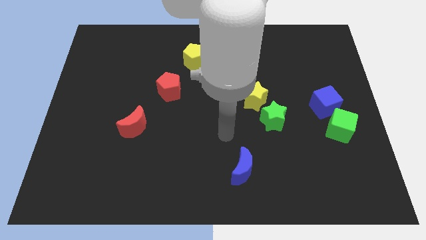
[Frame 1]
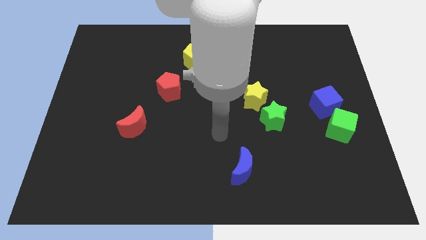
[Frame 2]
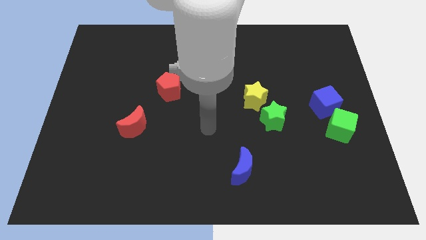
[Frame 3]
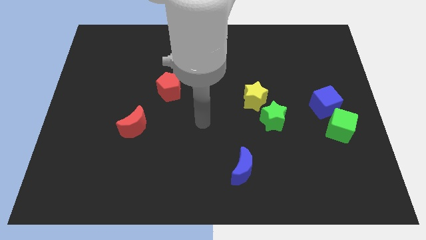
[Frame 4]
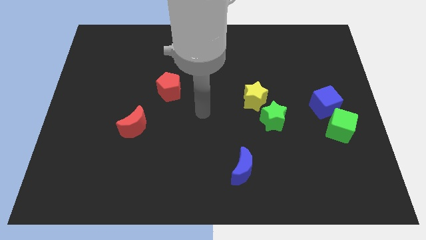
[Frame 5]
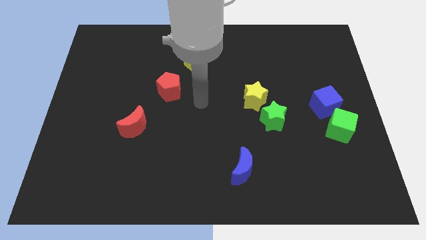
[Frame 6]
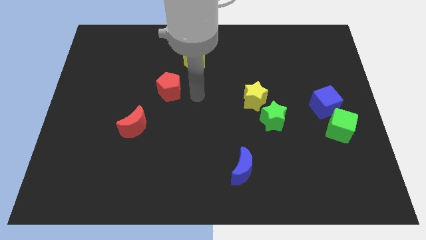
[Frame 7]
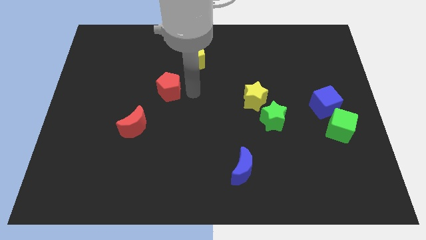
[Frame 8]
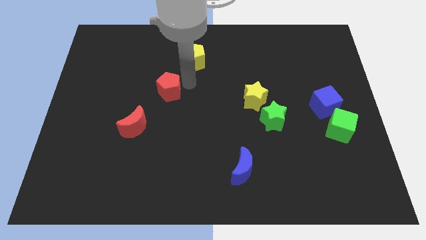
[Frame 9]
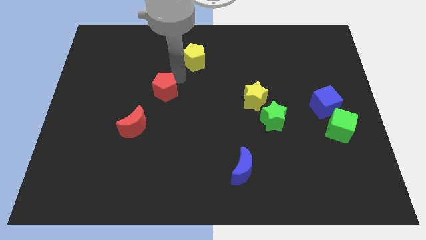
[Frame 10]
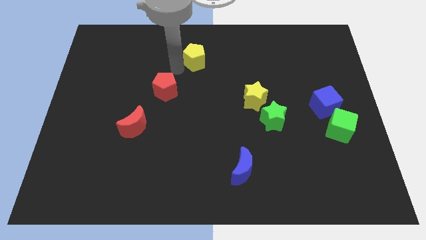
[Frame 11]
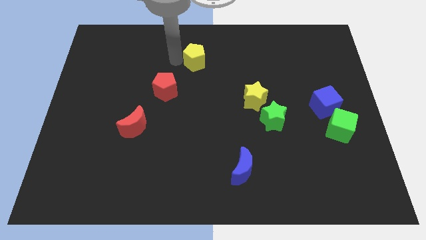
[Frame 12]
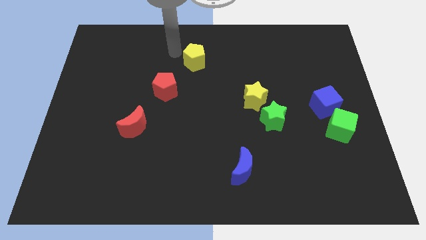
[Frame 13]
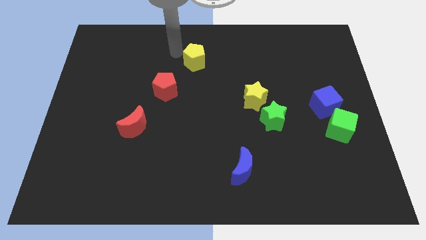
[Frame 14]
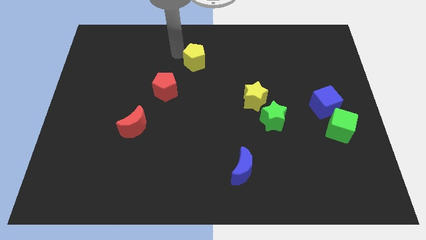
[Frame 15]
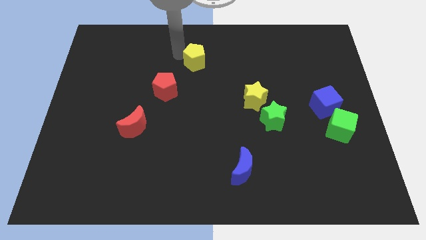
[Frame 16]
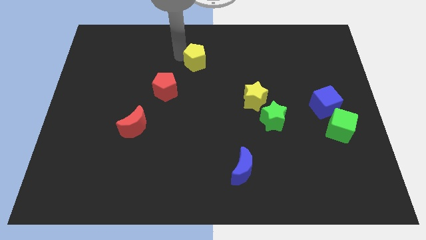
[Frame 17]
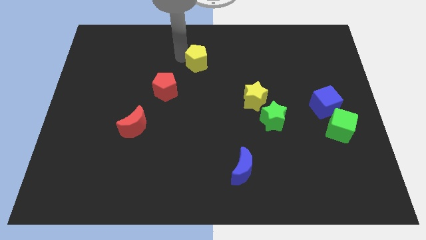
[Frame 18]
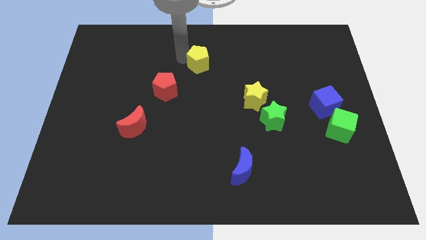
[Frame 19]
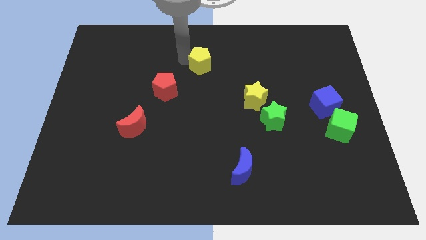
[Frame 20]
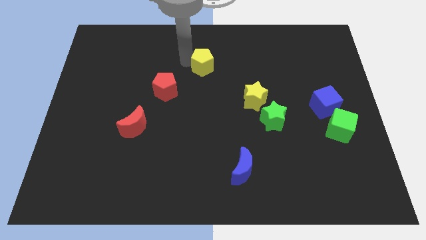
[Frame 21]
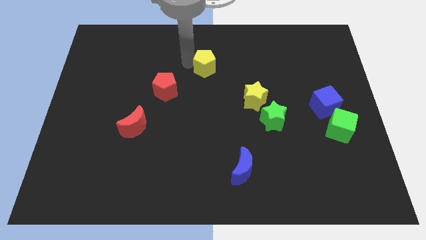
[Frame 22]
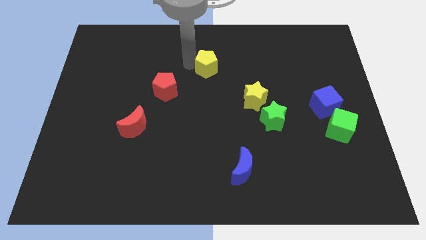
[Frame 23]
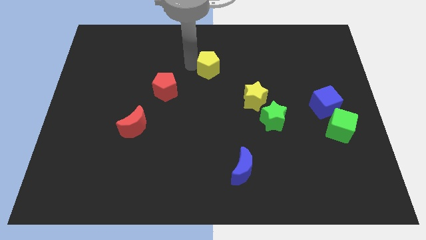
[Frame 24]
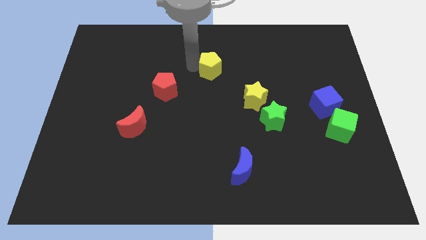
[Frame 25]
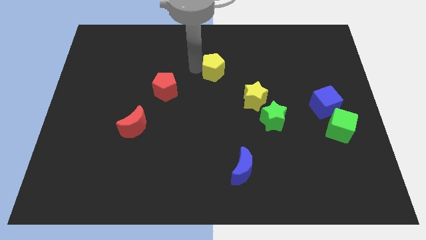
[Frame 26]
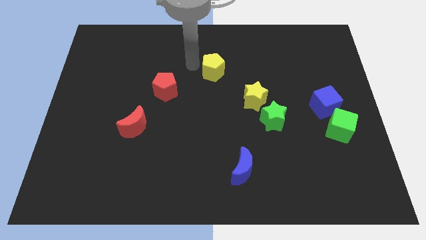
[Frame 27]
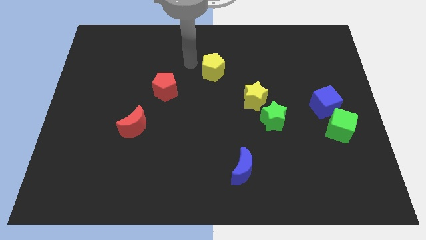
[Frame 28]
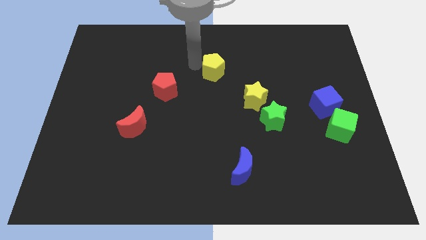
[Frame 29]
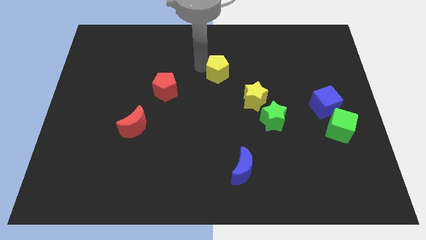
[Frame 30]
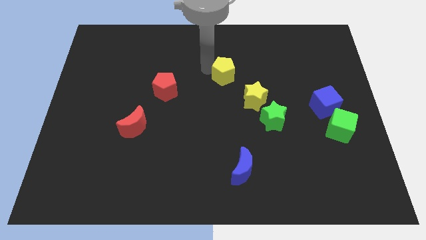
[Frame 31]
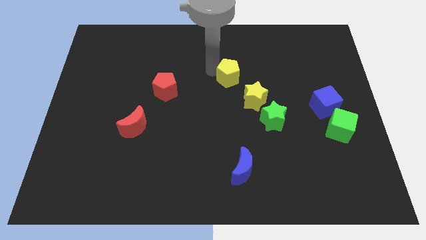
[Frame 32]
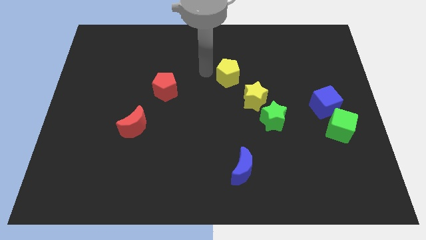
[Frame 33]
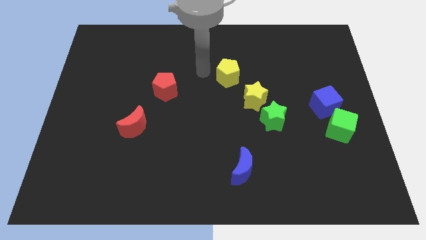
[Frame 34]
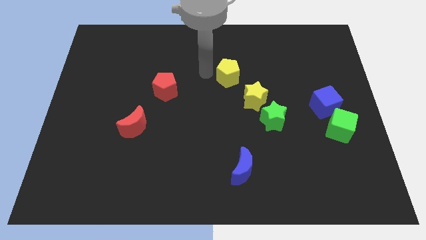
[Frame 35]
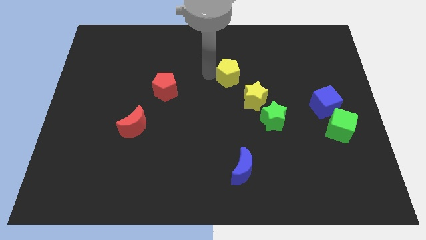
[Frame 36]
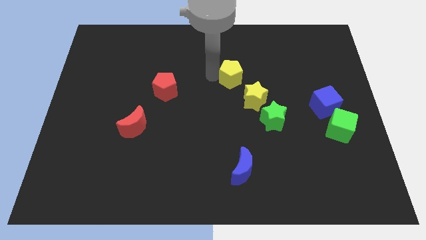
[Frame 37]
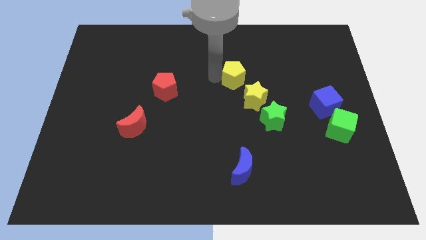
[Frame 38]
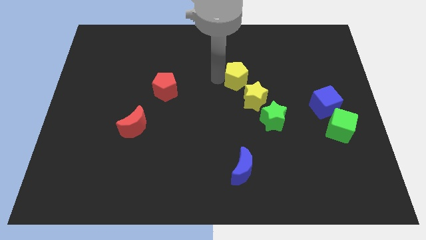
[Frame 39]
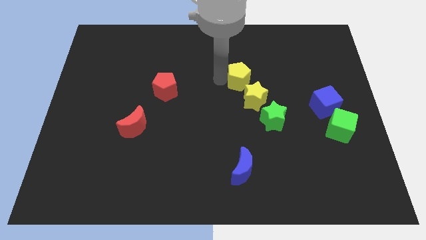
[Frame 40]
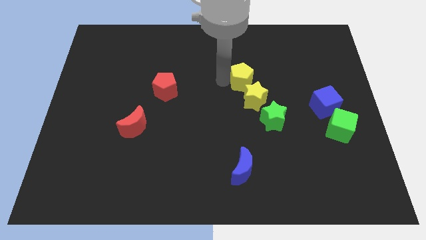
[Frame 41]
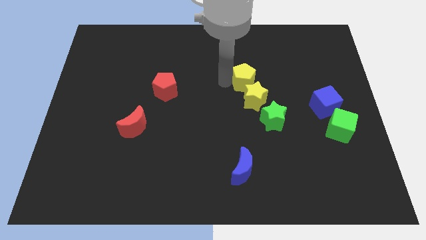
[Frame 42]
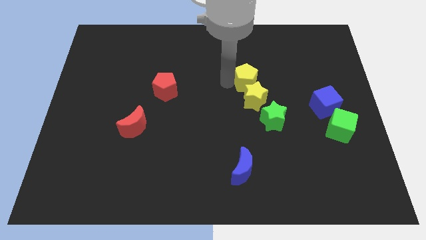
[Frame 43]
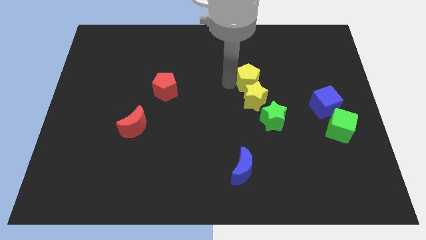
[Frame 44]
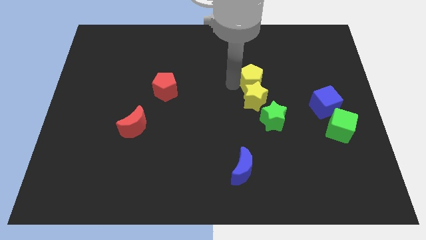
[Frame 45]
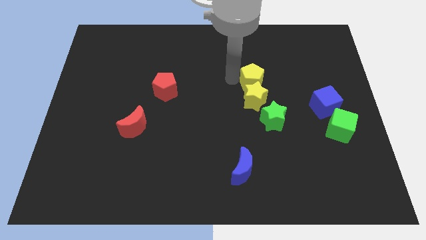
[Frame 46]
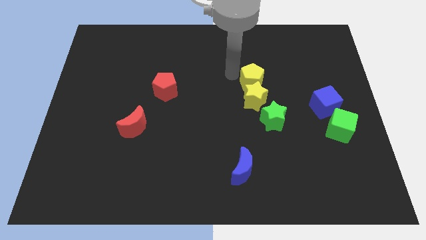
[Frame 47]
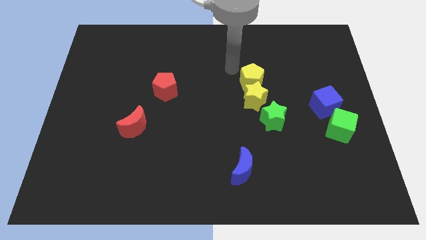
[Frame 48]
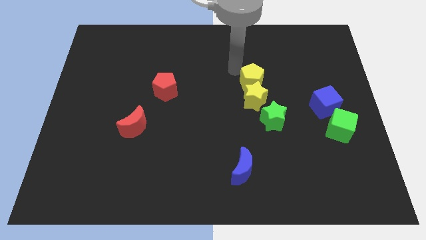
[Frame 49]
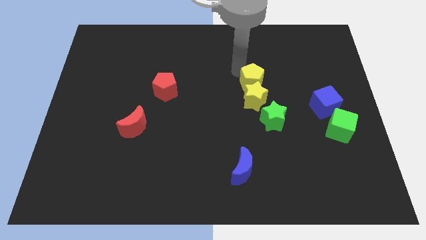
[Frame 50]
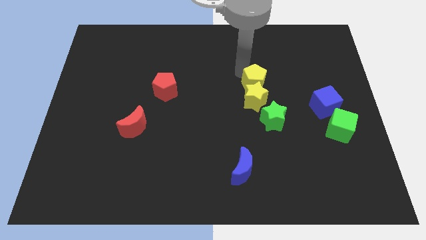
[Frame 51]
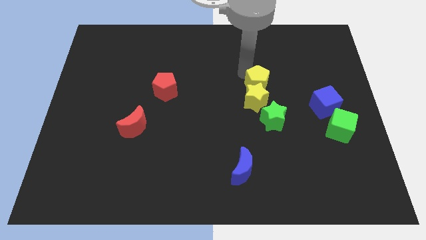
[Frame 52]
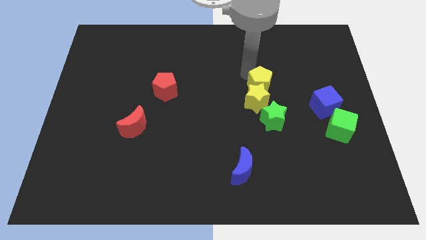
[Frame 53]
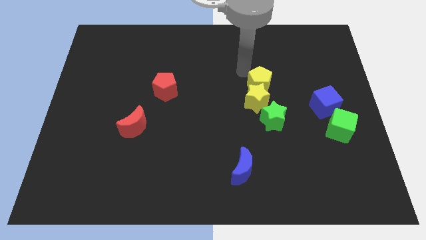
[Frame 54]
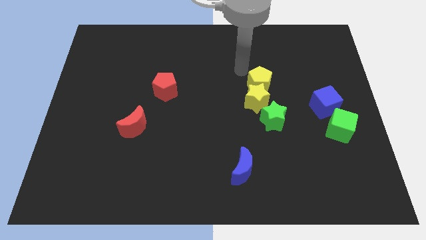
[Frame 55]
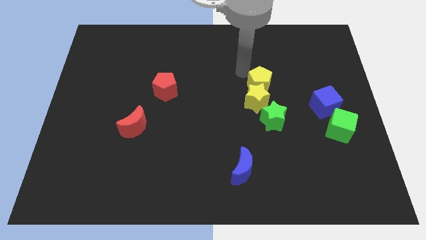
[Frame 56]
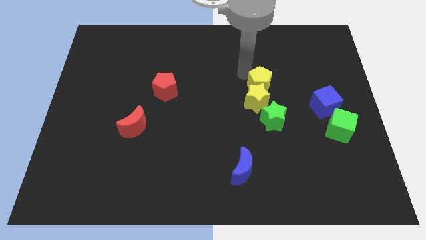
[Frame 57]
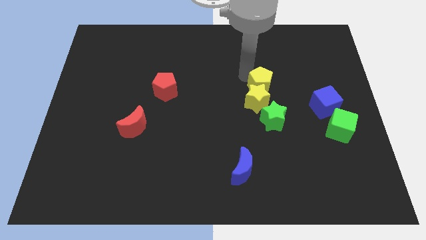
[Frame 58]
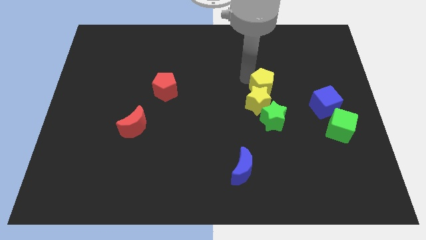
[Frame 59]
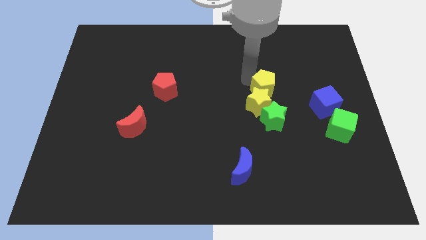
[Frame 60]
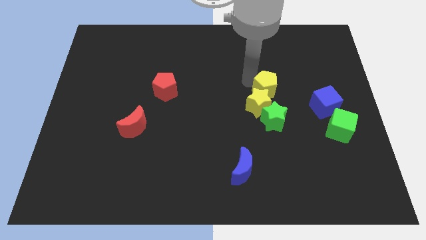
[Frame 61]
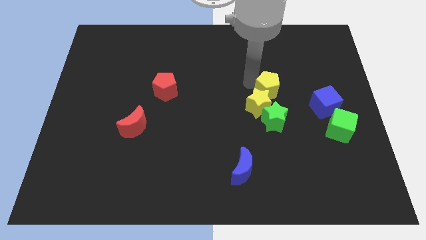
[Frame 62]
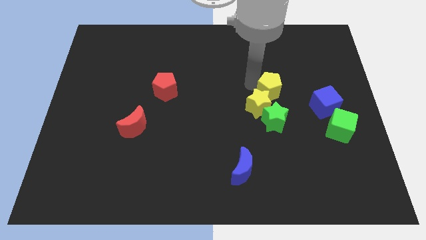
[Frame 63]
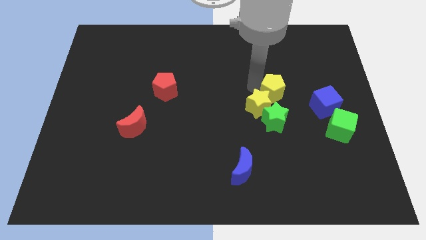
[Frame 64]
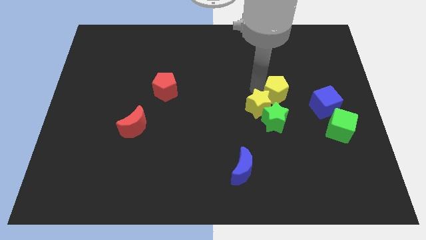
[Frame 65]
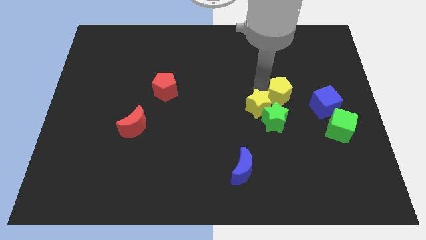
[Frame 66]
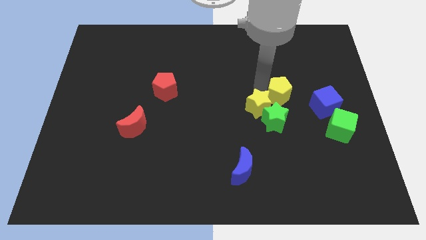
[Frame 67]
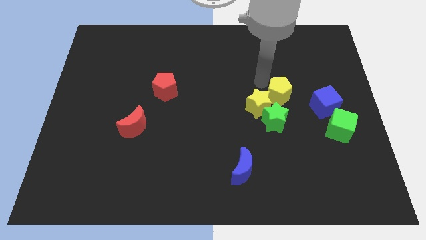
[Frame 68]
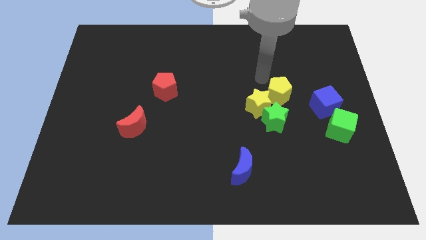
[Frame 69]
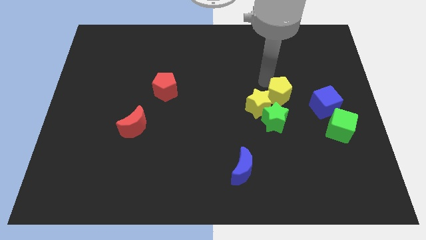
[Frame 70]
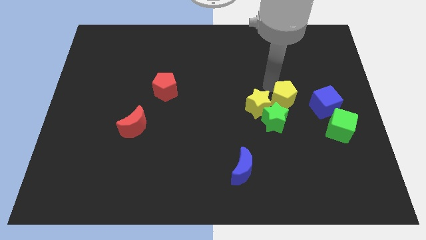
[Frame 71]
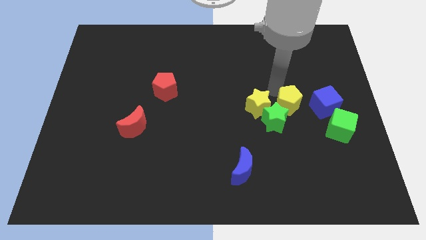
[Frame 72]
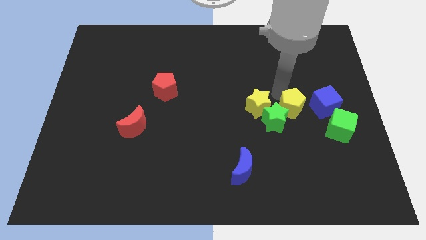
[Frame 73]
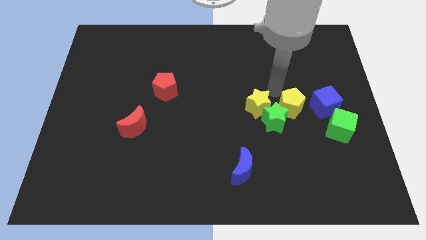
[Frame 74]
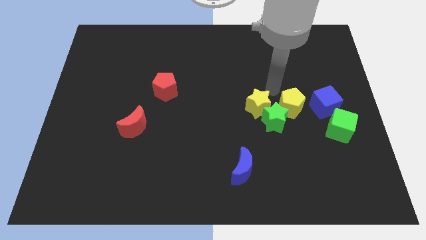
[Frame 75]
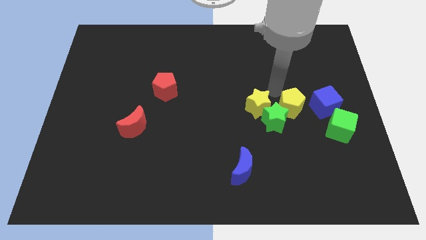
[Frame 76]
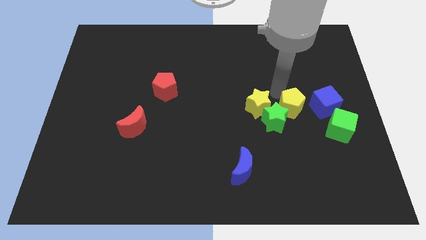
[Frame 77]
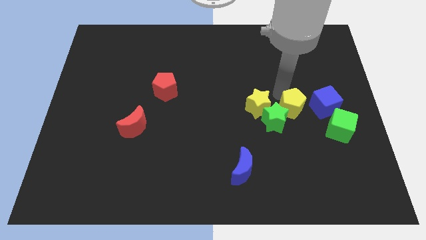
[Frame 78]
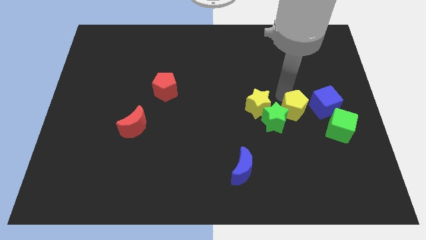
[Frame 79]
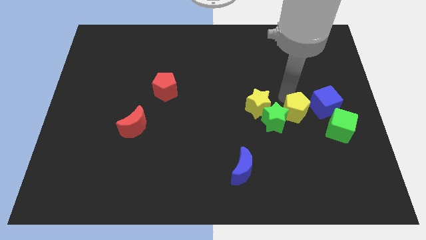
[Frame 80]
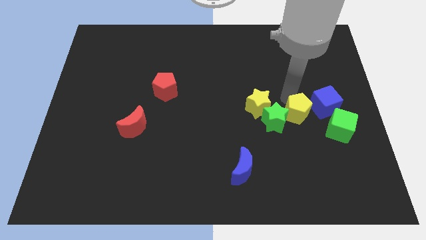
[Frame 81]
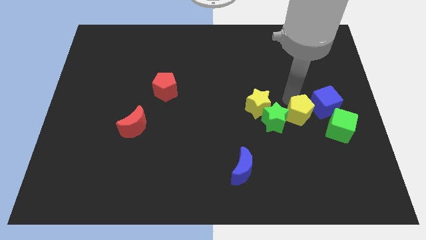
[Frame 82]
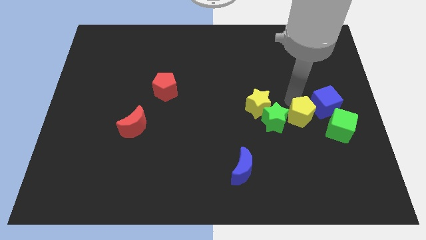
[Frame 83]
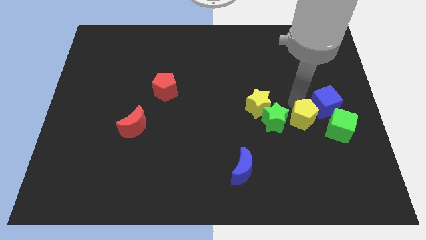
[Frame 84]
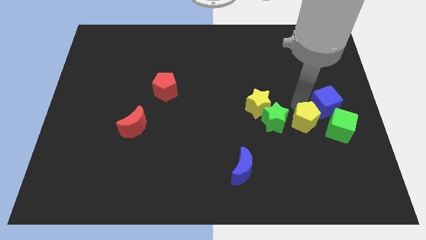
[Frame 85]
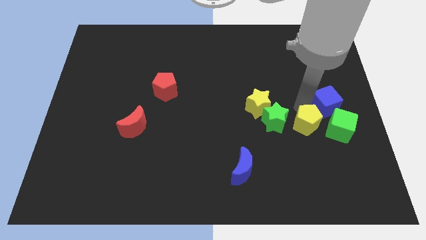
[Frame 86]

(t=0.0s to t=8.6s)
slide the yellow pentagon to the bottom of the blue cube
